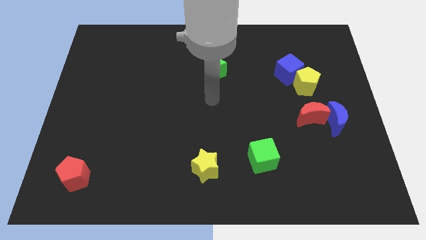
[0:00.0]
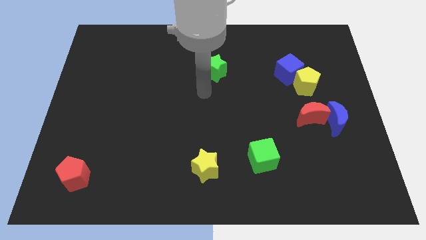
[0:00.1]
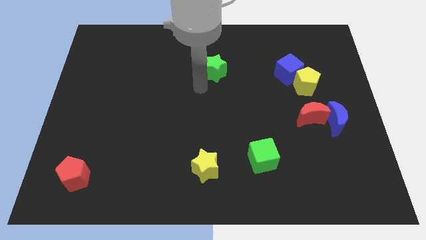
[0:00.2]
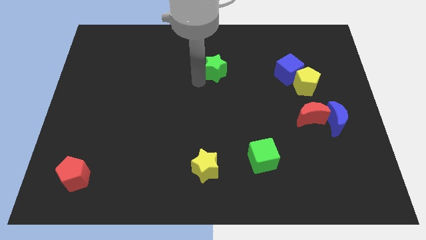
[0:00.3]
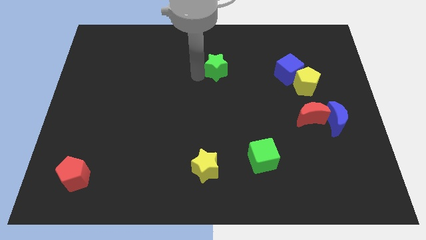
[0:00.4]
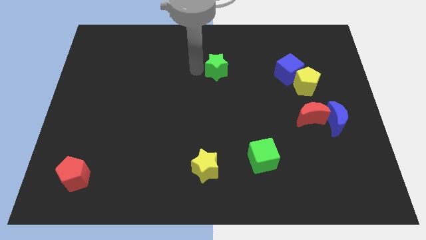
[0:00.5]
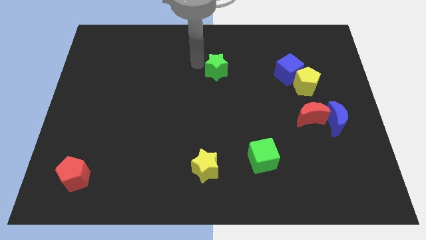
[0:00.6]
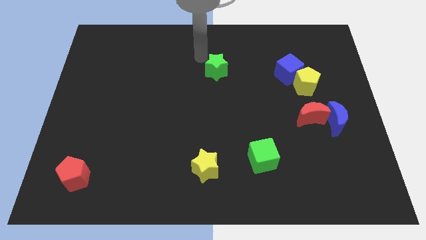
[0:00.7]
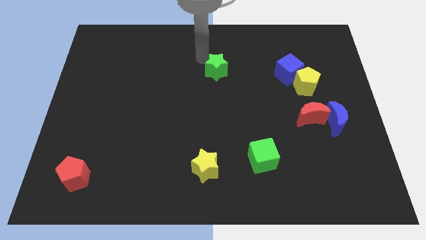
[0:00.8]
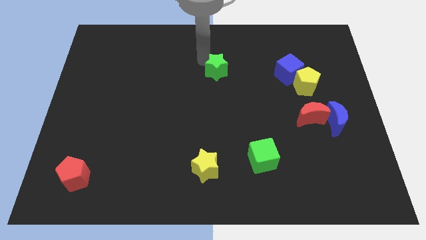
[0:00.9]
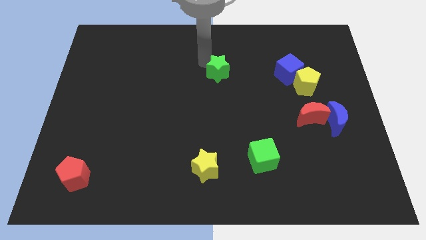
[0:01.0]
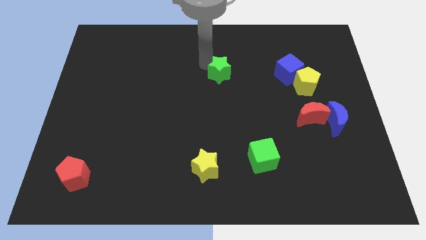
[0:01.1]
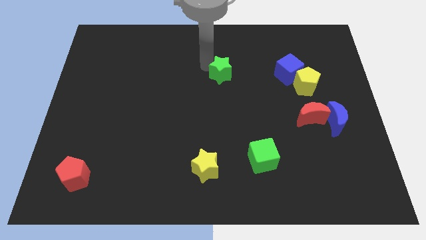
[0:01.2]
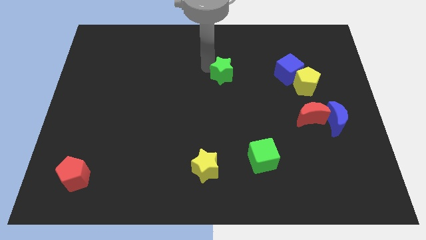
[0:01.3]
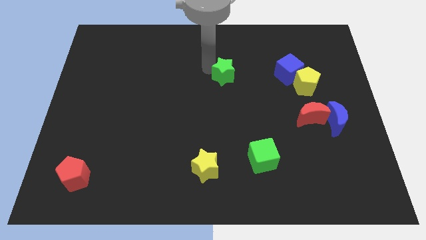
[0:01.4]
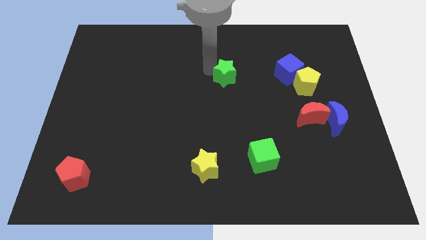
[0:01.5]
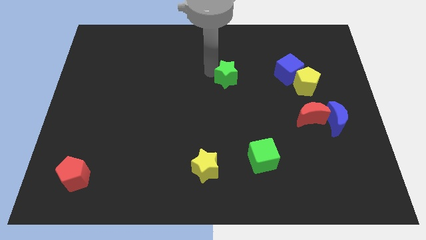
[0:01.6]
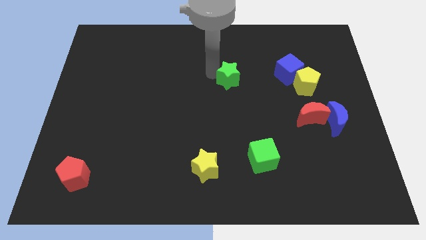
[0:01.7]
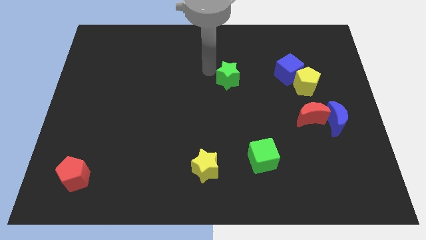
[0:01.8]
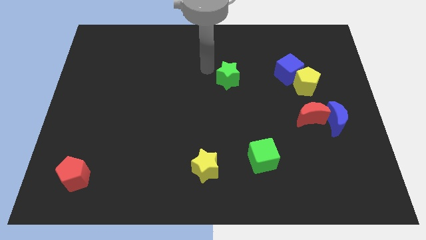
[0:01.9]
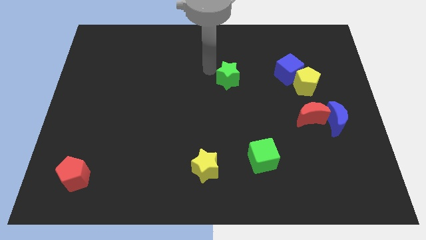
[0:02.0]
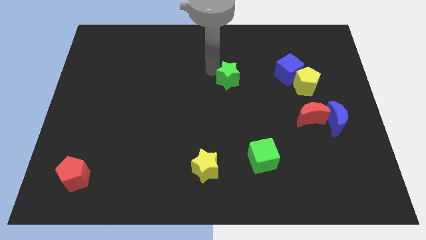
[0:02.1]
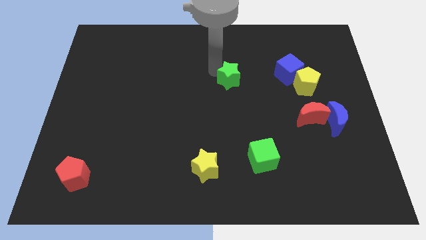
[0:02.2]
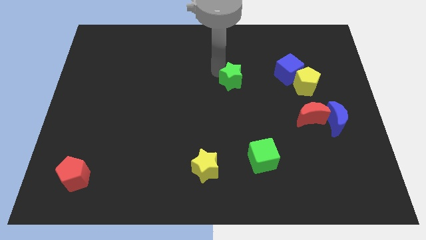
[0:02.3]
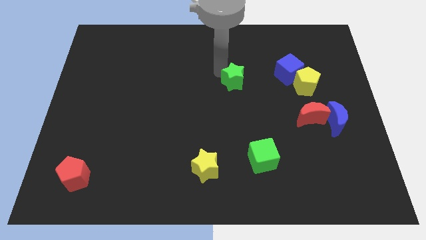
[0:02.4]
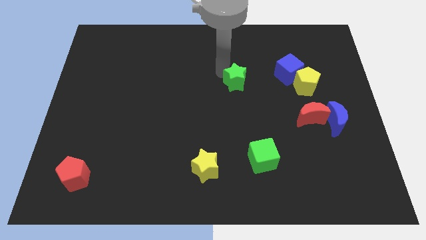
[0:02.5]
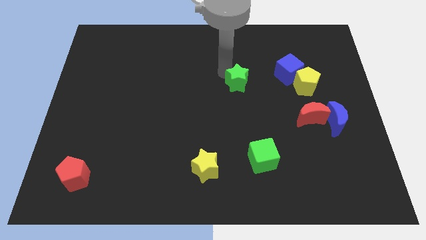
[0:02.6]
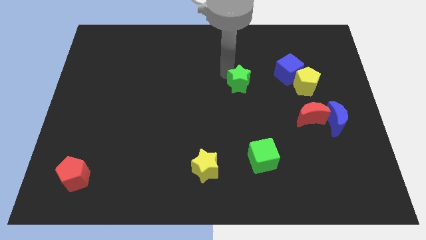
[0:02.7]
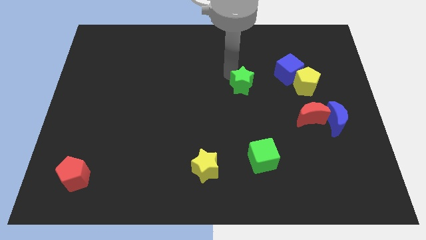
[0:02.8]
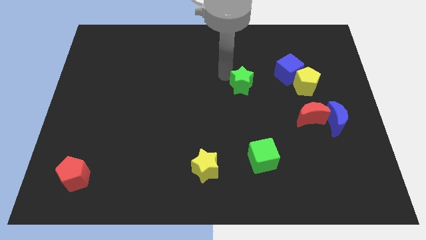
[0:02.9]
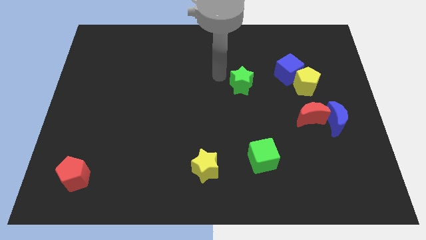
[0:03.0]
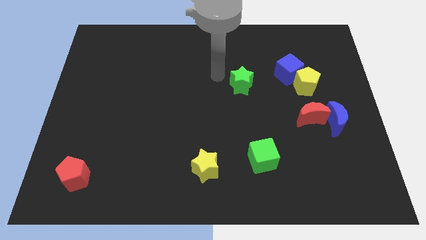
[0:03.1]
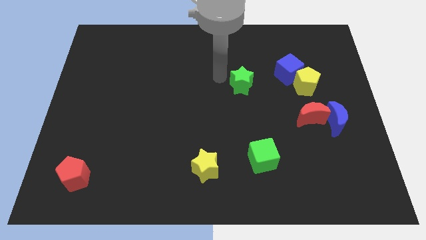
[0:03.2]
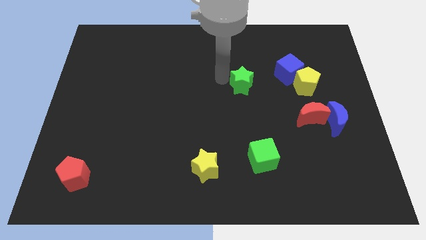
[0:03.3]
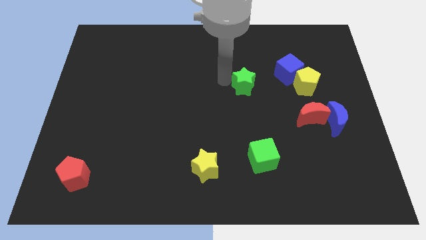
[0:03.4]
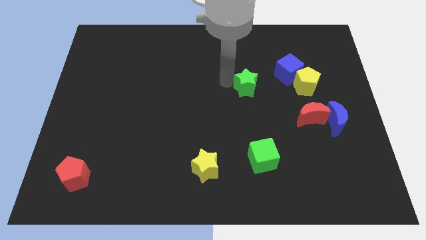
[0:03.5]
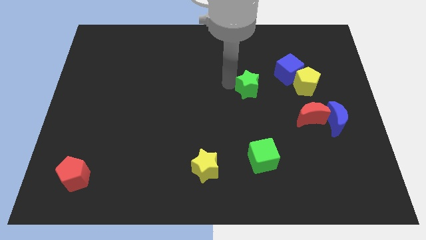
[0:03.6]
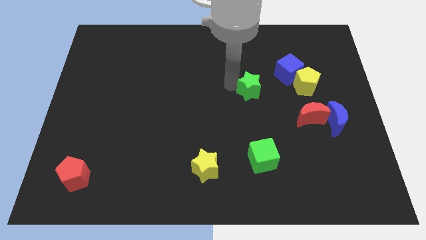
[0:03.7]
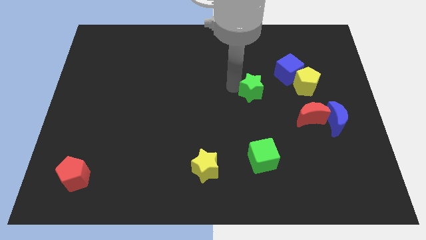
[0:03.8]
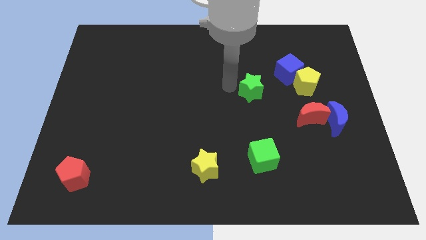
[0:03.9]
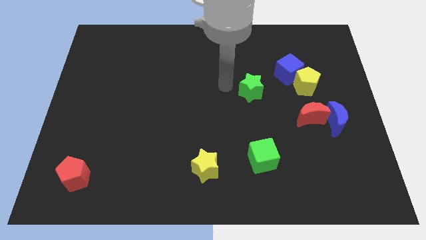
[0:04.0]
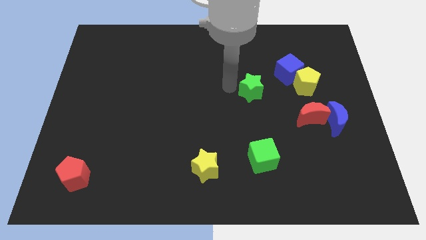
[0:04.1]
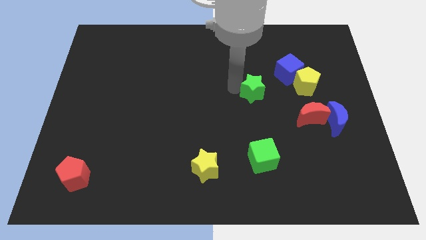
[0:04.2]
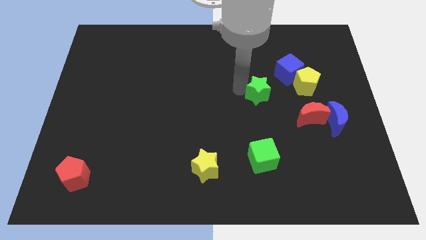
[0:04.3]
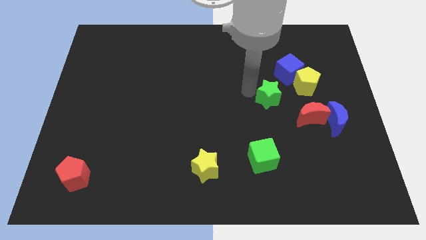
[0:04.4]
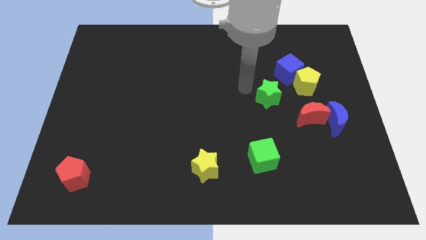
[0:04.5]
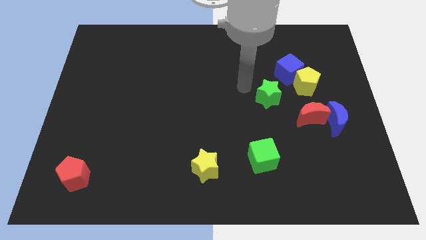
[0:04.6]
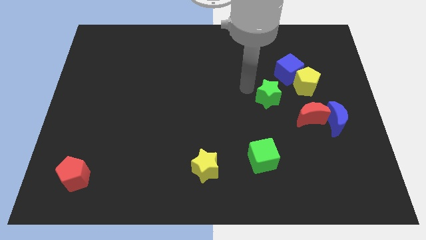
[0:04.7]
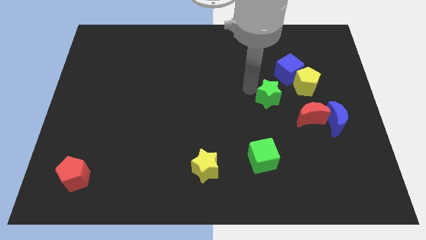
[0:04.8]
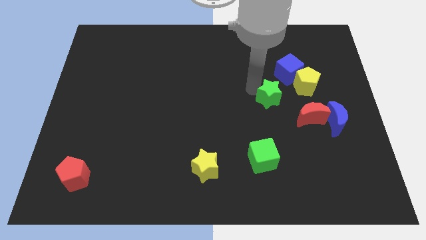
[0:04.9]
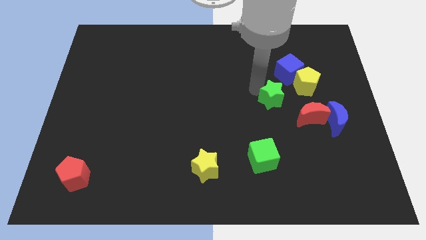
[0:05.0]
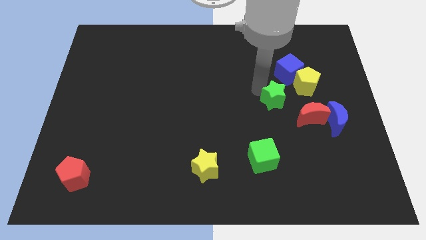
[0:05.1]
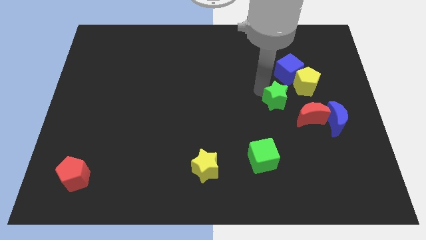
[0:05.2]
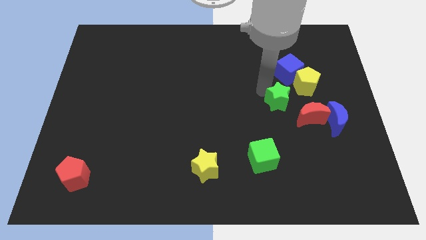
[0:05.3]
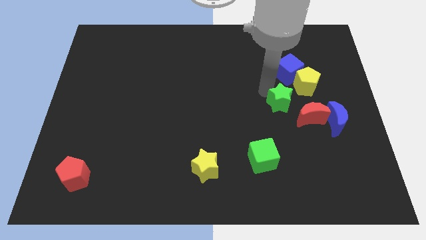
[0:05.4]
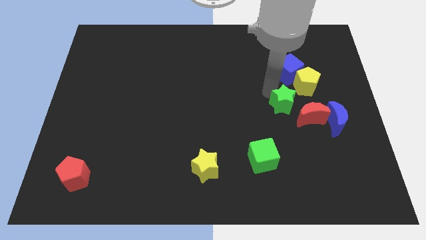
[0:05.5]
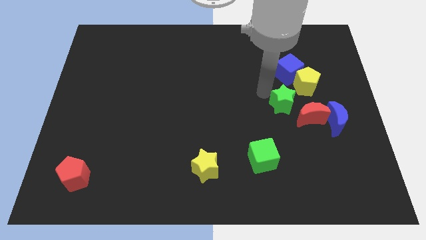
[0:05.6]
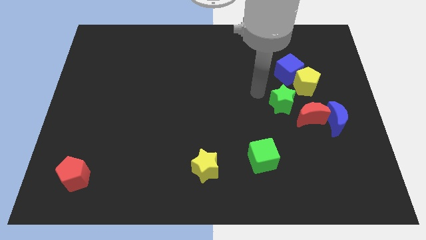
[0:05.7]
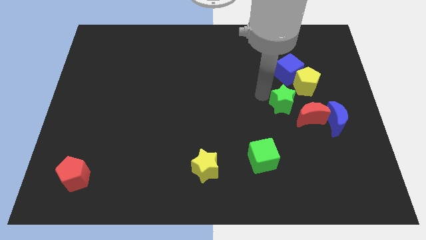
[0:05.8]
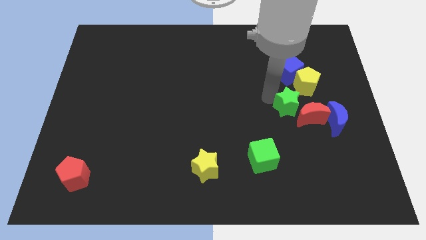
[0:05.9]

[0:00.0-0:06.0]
slide the green star close to the red moon

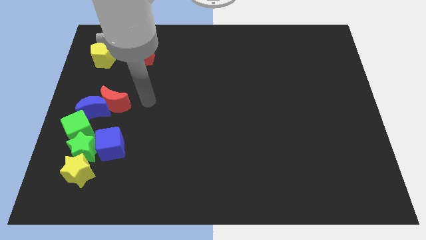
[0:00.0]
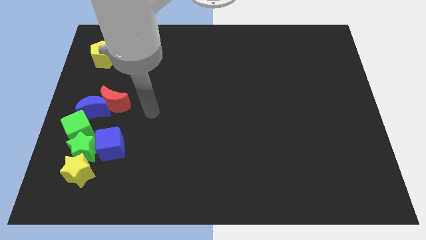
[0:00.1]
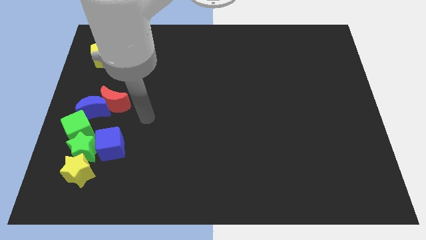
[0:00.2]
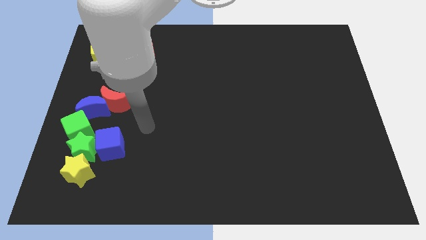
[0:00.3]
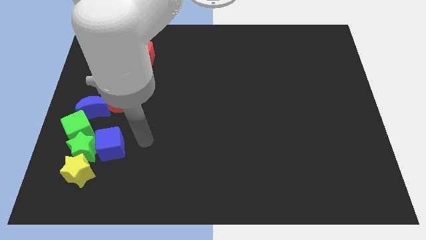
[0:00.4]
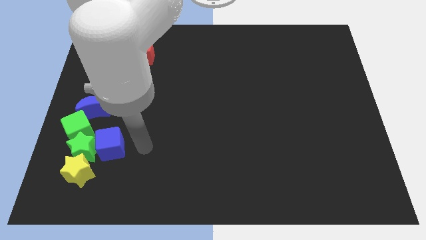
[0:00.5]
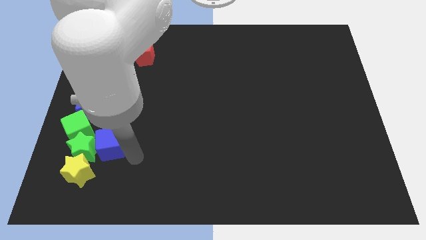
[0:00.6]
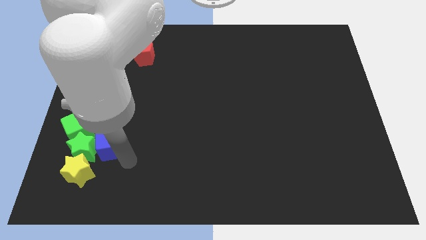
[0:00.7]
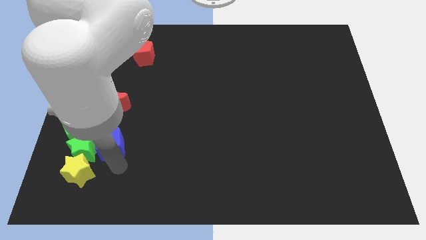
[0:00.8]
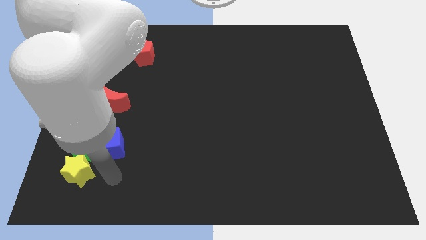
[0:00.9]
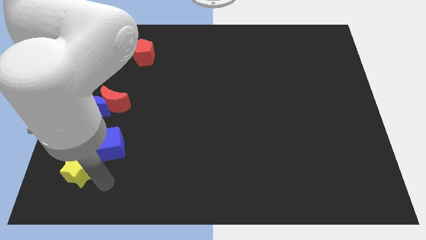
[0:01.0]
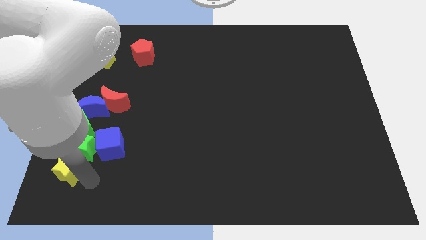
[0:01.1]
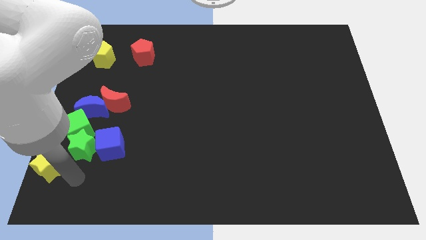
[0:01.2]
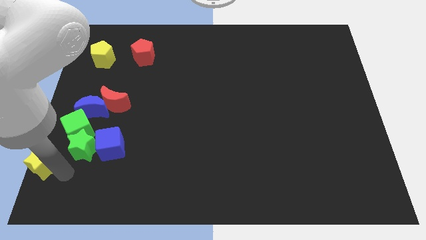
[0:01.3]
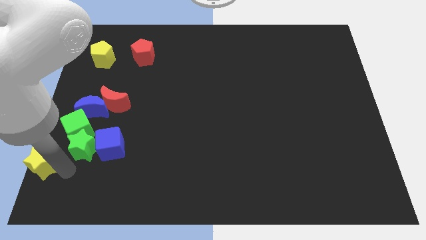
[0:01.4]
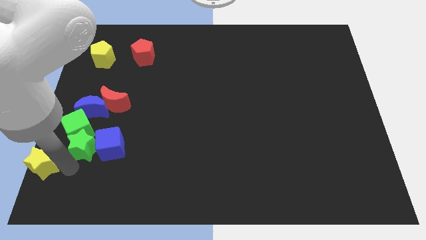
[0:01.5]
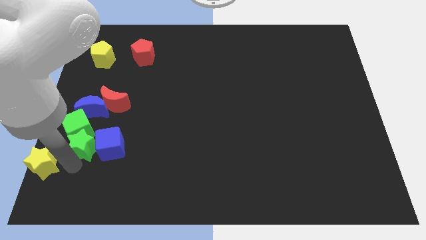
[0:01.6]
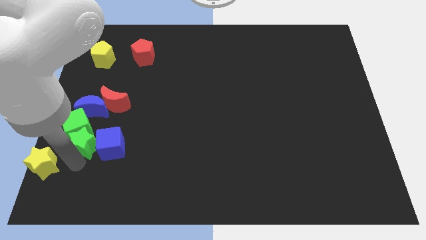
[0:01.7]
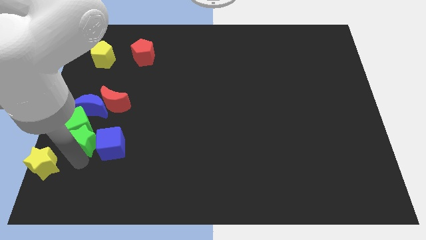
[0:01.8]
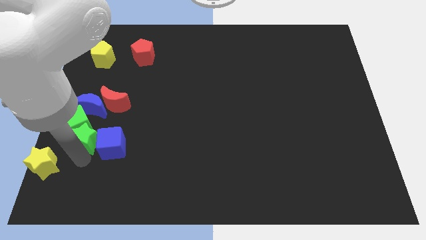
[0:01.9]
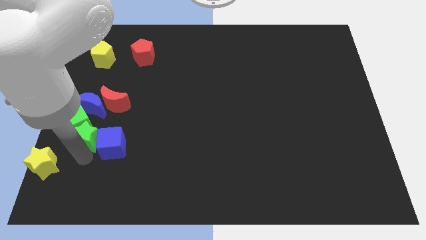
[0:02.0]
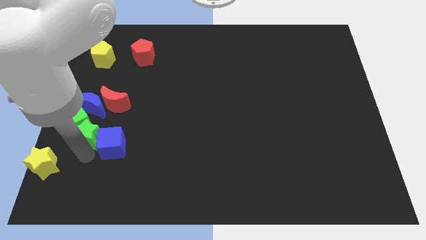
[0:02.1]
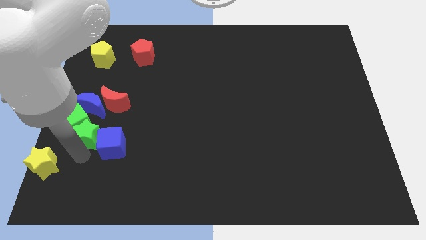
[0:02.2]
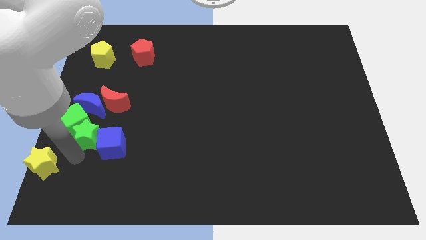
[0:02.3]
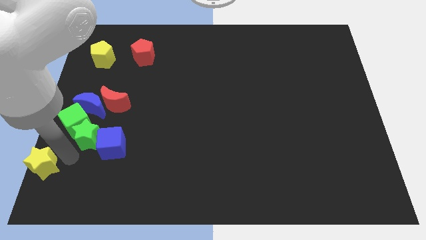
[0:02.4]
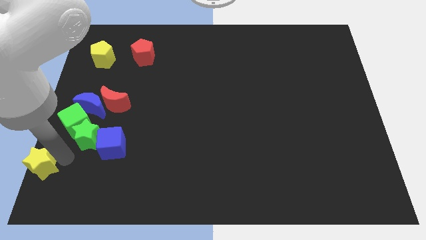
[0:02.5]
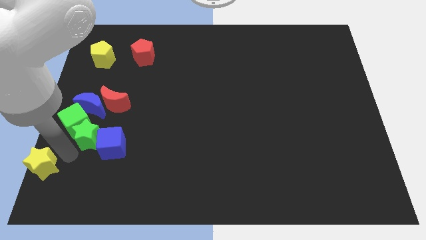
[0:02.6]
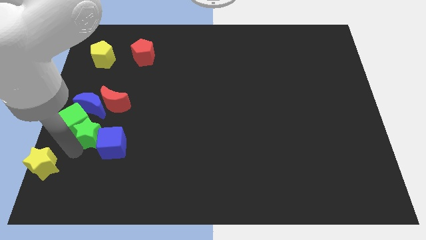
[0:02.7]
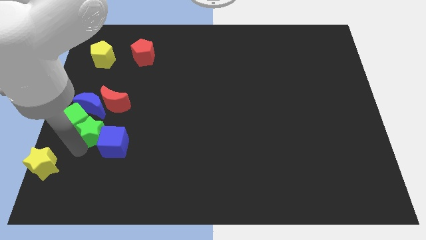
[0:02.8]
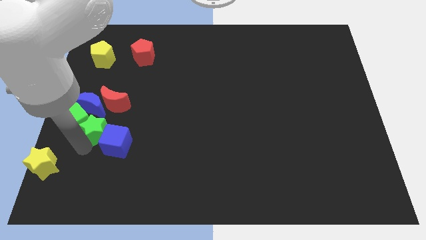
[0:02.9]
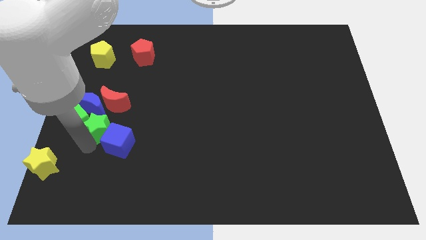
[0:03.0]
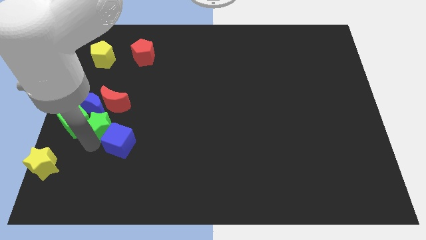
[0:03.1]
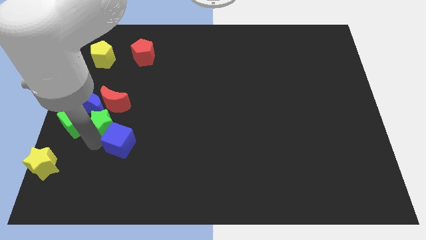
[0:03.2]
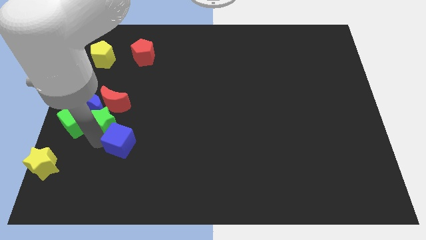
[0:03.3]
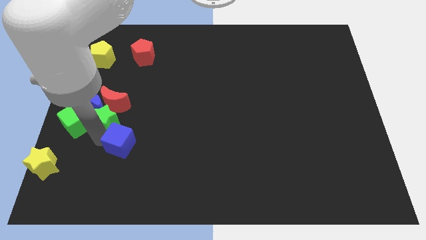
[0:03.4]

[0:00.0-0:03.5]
move the green star to the blue moon
